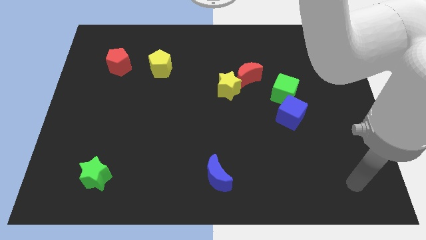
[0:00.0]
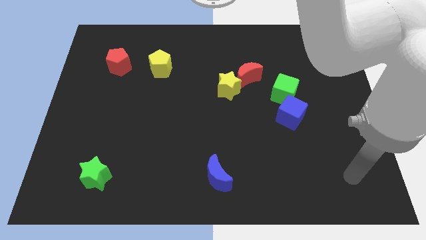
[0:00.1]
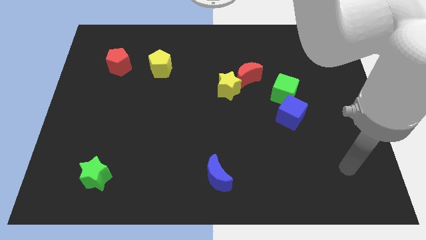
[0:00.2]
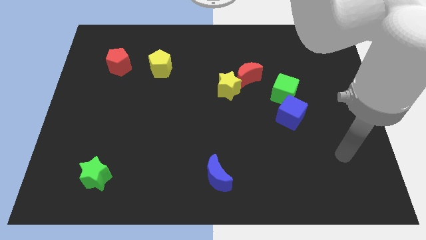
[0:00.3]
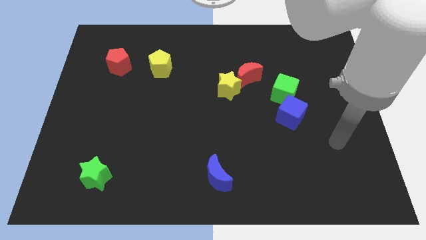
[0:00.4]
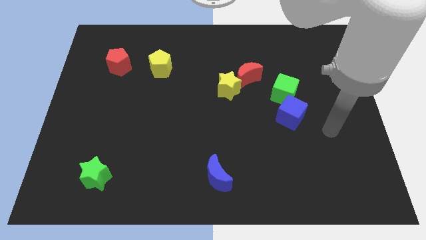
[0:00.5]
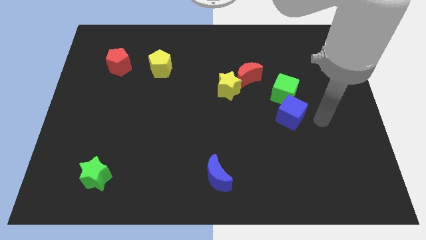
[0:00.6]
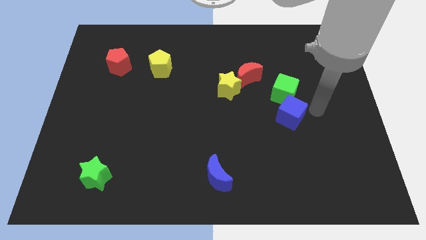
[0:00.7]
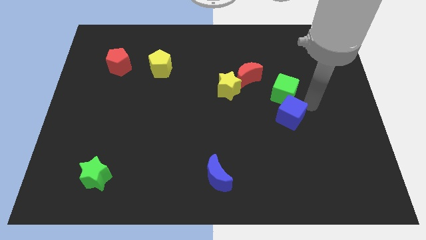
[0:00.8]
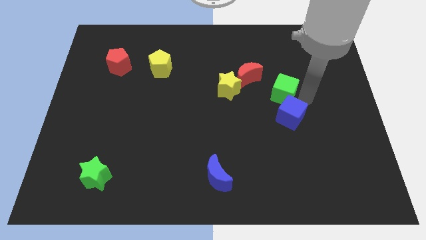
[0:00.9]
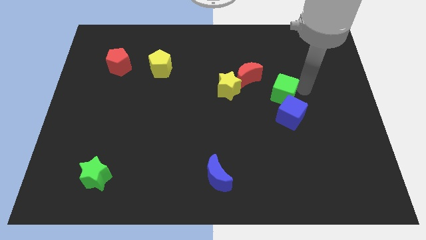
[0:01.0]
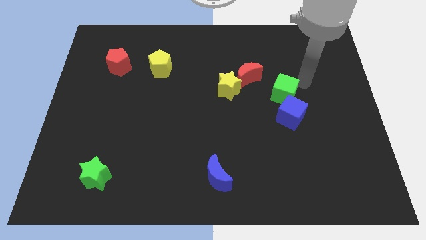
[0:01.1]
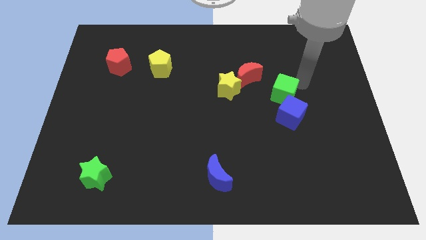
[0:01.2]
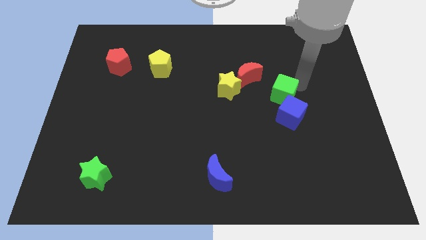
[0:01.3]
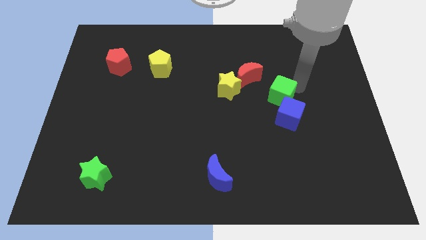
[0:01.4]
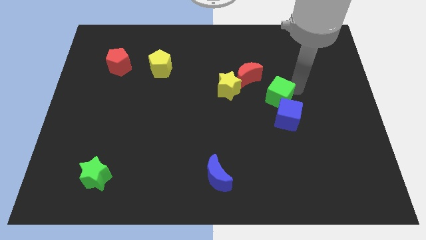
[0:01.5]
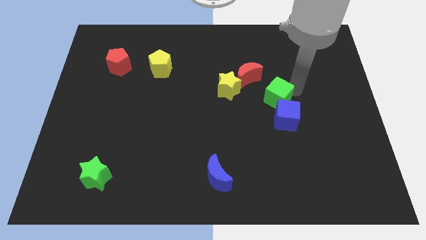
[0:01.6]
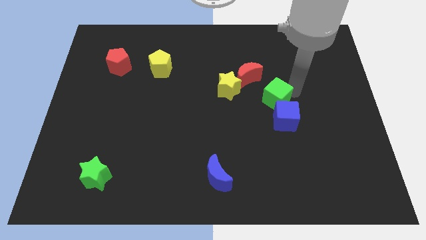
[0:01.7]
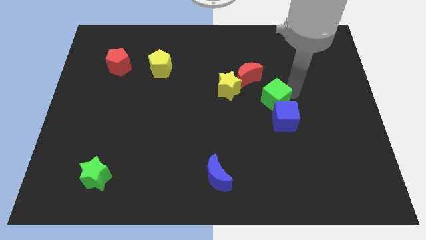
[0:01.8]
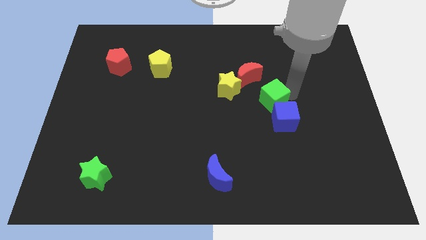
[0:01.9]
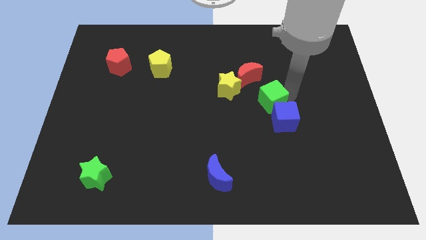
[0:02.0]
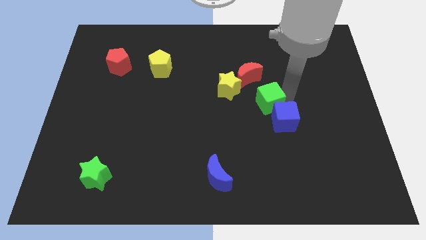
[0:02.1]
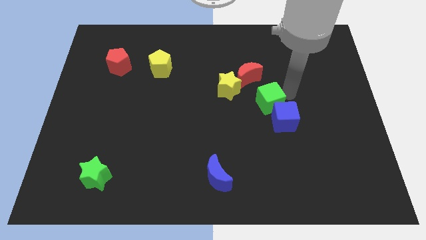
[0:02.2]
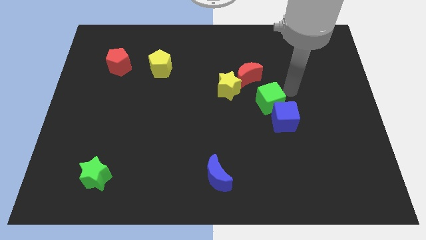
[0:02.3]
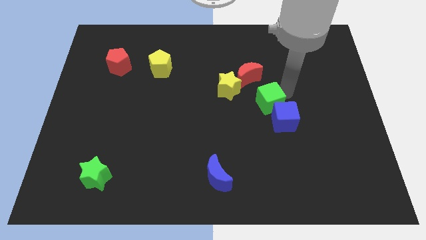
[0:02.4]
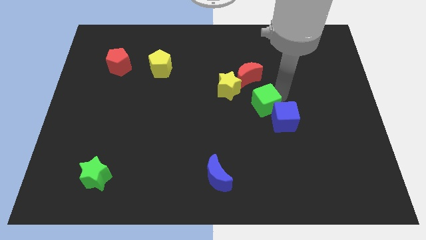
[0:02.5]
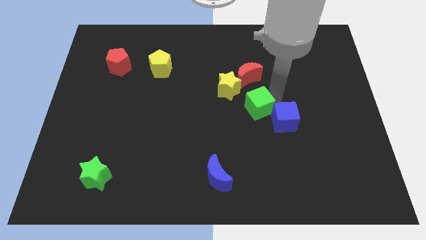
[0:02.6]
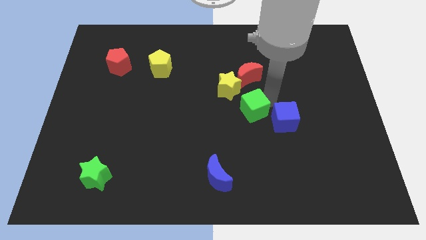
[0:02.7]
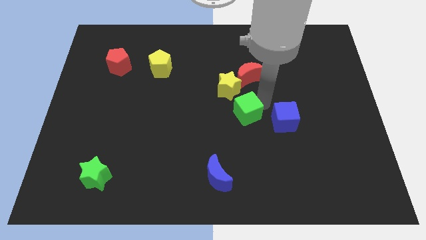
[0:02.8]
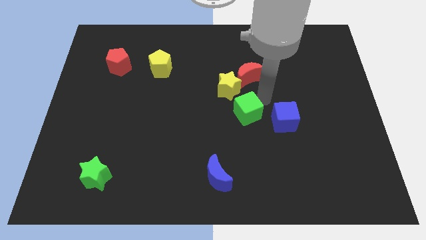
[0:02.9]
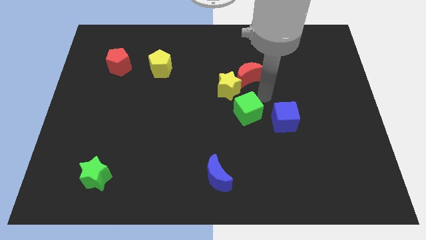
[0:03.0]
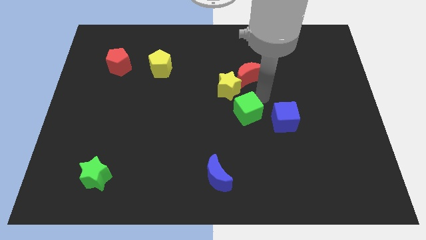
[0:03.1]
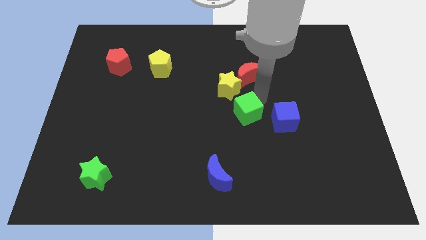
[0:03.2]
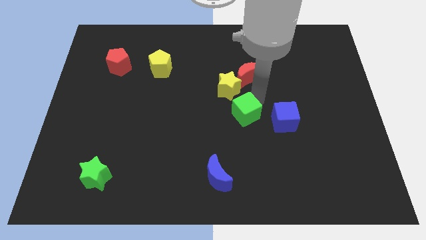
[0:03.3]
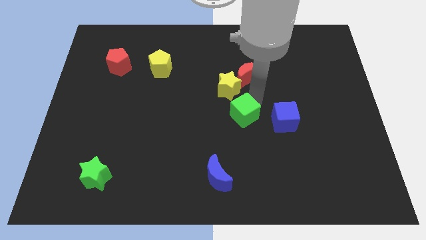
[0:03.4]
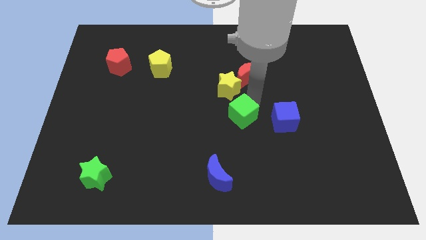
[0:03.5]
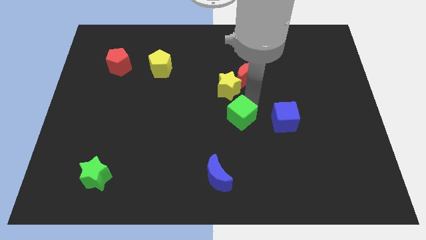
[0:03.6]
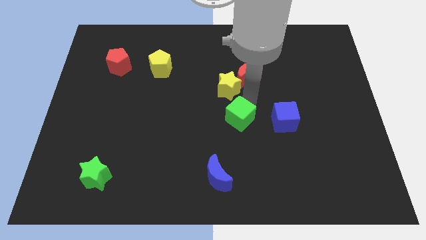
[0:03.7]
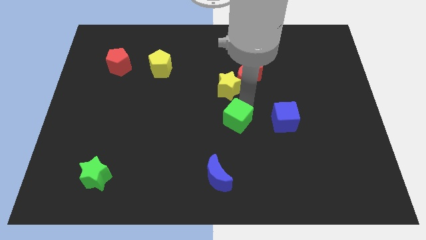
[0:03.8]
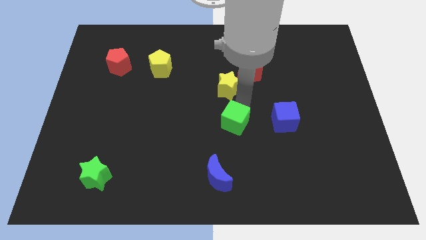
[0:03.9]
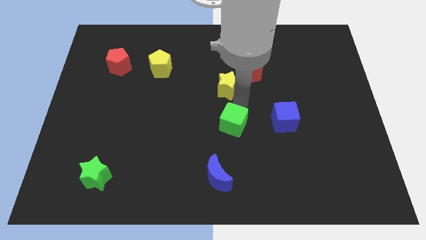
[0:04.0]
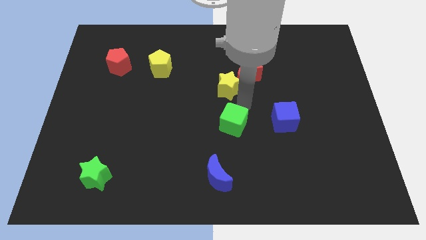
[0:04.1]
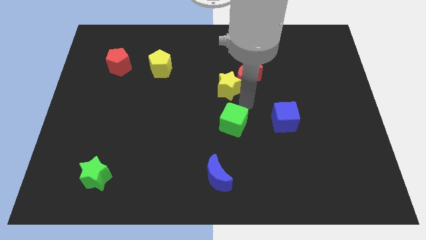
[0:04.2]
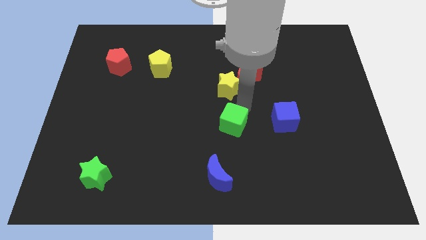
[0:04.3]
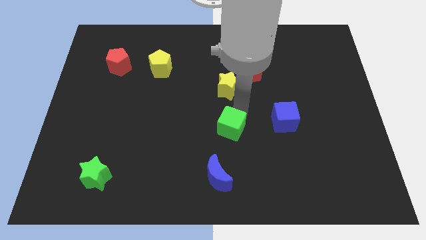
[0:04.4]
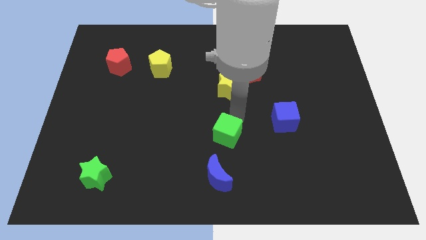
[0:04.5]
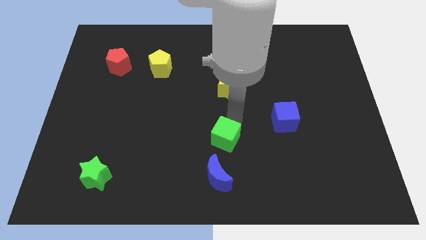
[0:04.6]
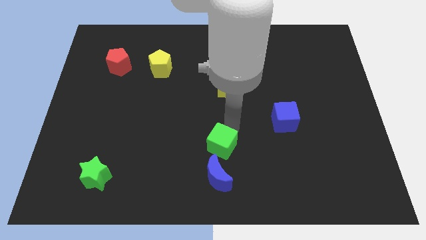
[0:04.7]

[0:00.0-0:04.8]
move the green cube down and left

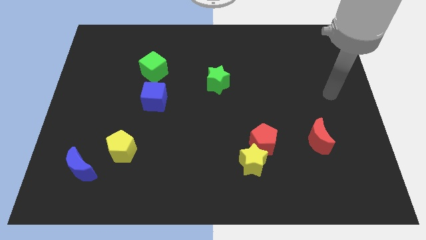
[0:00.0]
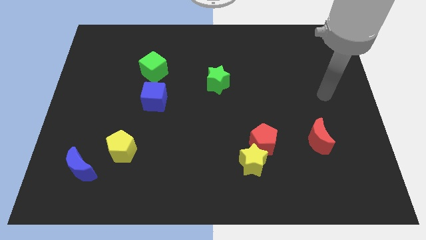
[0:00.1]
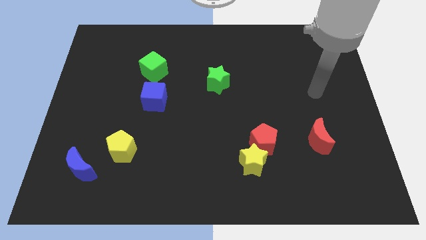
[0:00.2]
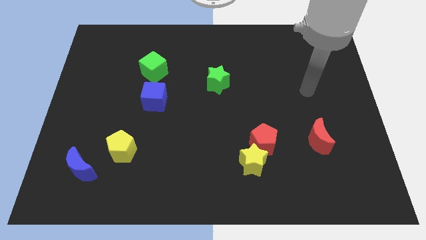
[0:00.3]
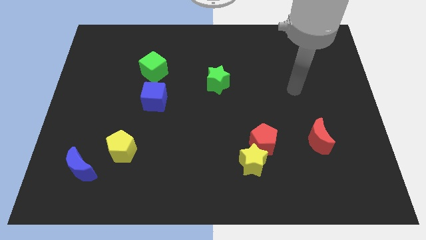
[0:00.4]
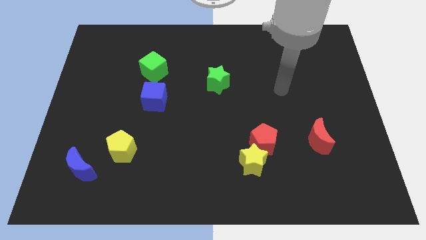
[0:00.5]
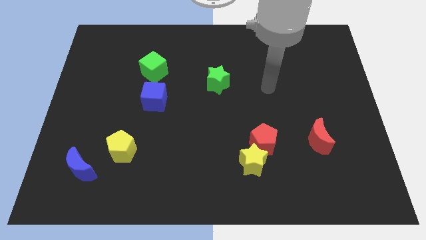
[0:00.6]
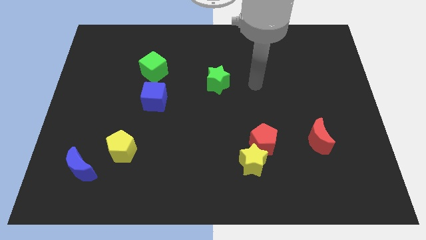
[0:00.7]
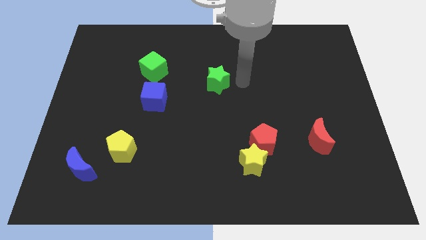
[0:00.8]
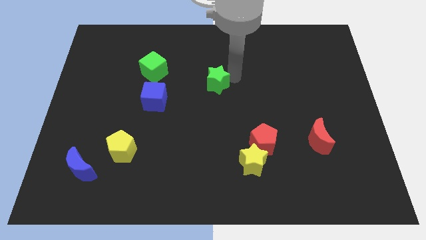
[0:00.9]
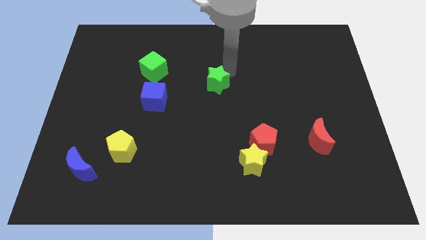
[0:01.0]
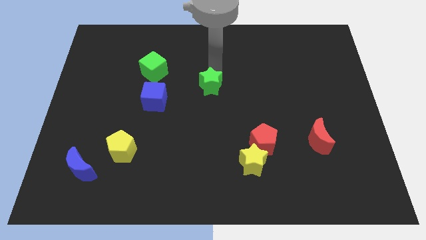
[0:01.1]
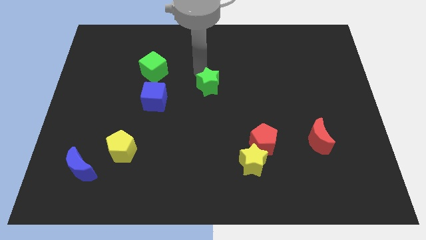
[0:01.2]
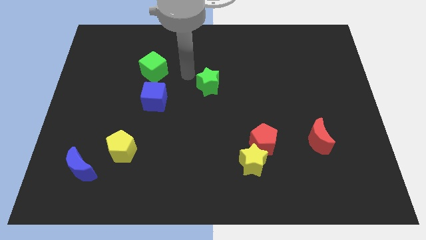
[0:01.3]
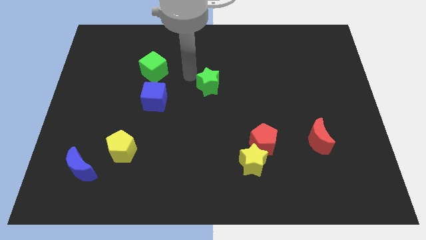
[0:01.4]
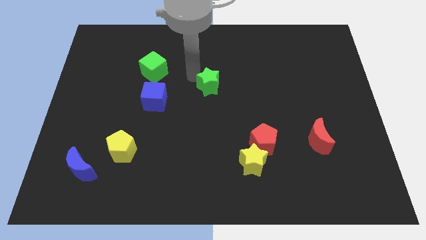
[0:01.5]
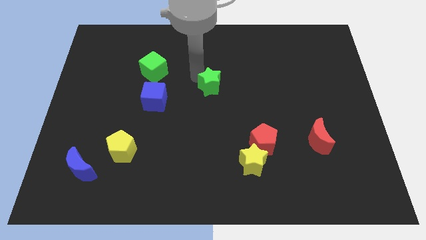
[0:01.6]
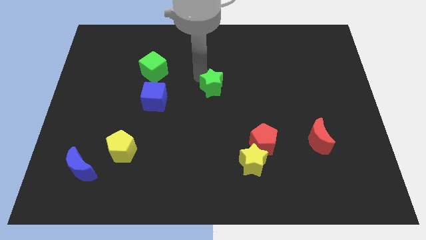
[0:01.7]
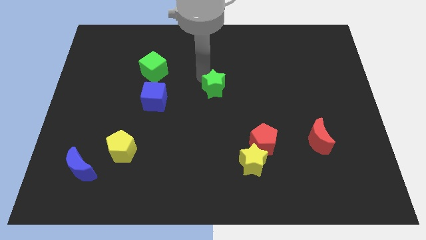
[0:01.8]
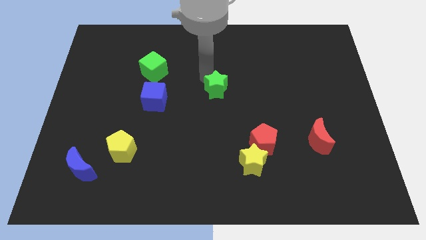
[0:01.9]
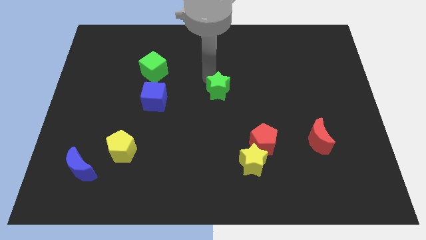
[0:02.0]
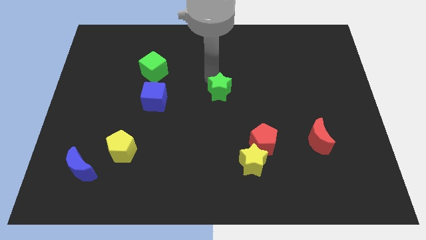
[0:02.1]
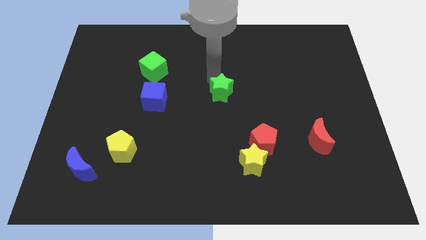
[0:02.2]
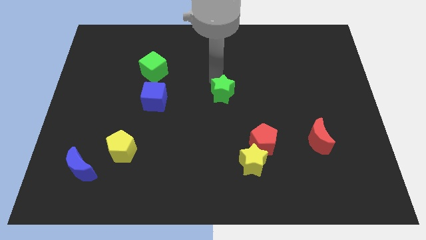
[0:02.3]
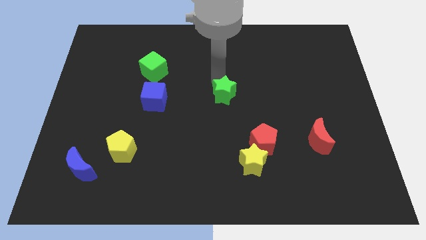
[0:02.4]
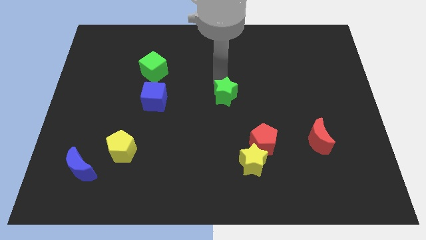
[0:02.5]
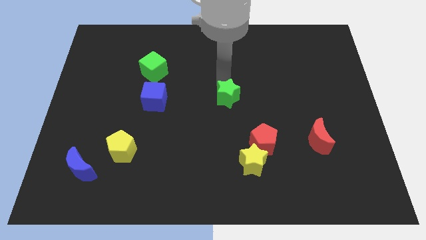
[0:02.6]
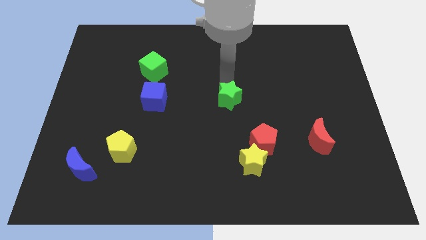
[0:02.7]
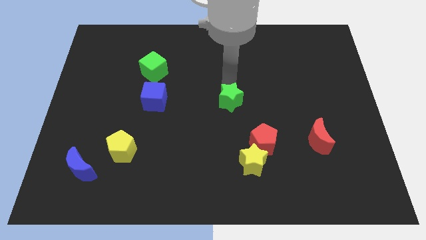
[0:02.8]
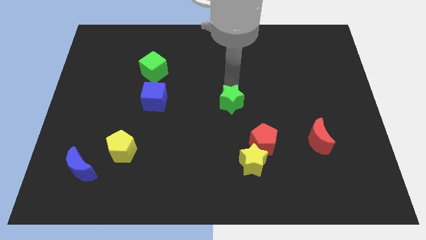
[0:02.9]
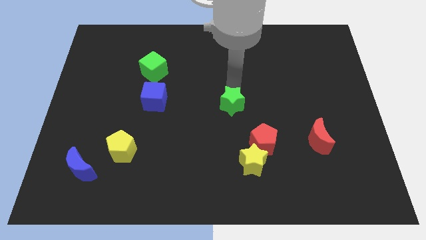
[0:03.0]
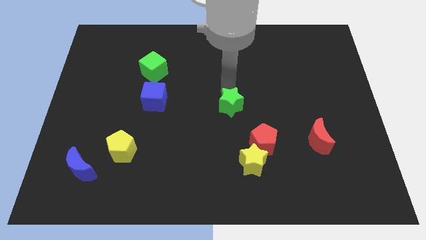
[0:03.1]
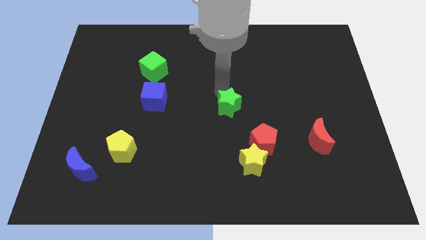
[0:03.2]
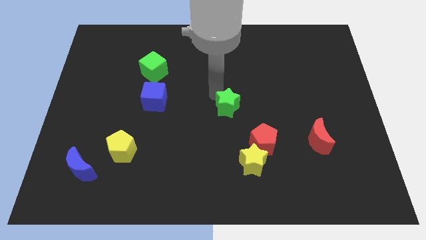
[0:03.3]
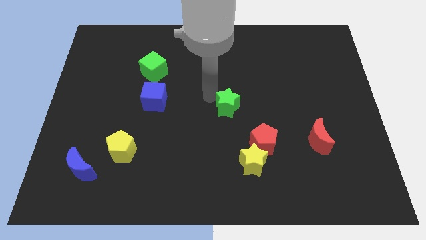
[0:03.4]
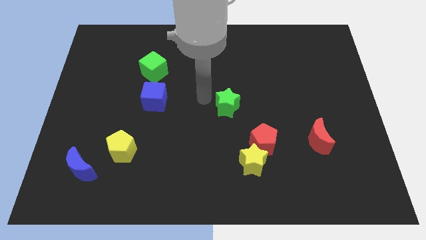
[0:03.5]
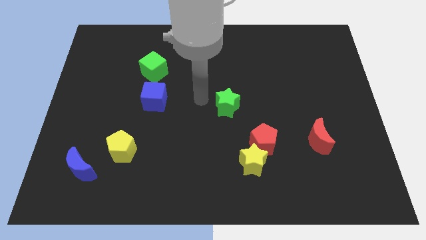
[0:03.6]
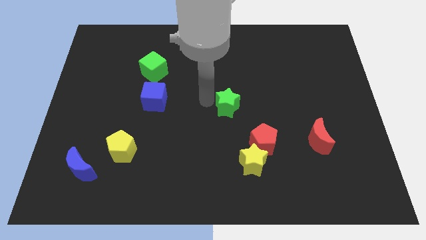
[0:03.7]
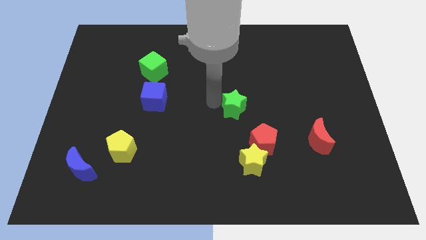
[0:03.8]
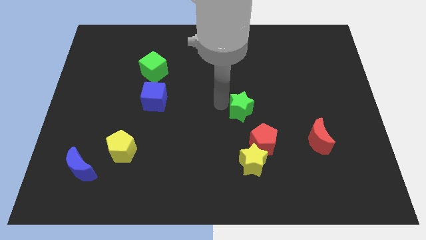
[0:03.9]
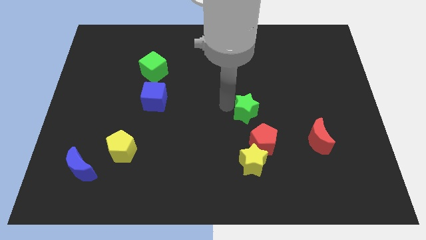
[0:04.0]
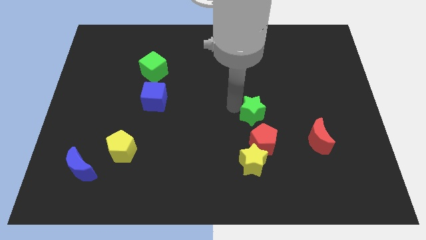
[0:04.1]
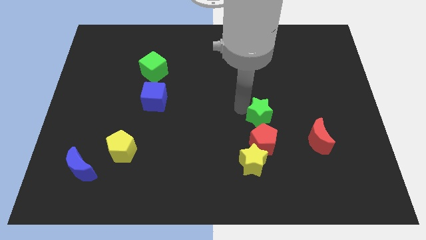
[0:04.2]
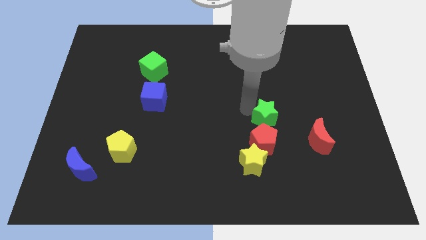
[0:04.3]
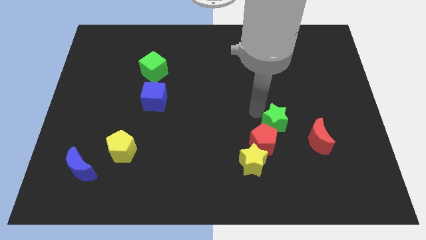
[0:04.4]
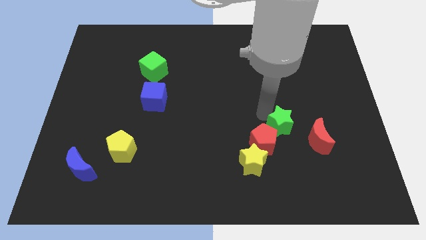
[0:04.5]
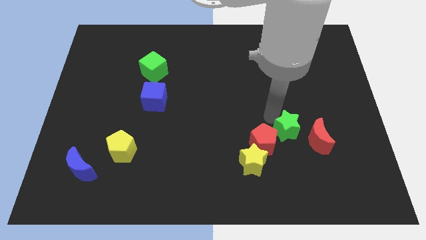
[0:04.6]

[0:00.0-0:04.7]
push the green star downwards and then to the right
